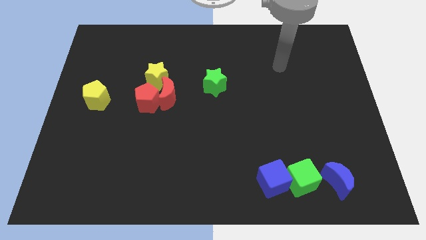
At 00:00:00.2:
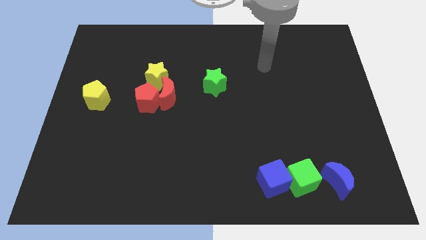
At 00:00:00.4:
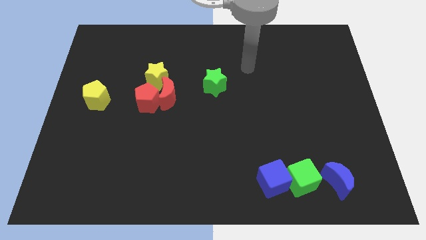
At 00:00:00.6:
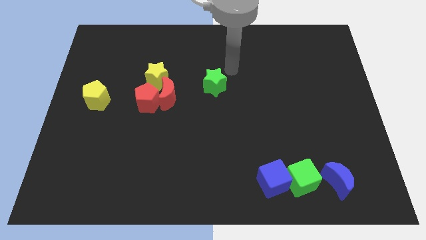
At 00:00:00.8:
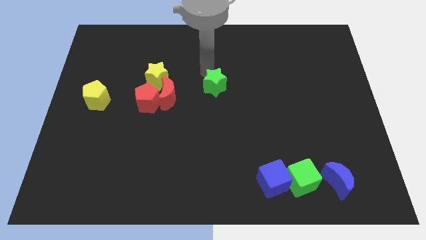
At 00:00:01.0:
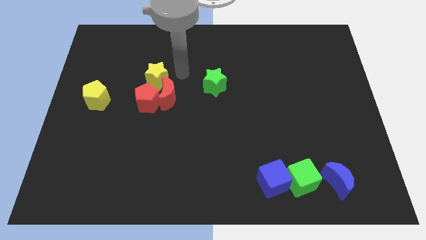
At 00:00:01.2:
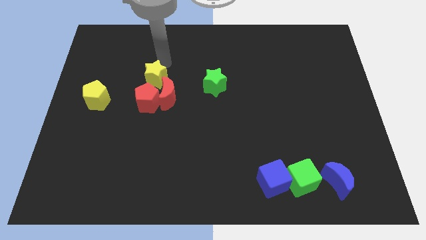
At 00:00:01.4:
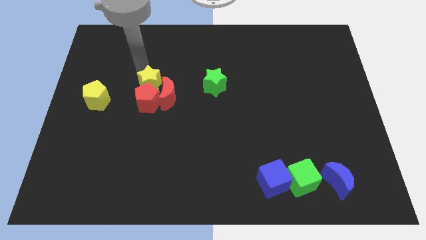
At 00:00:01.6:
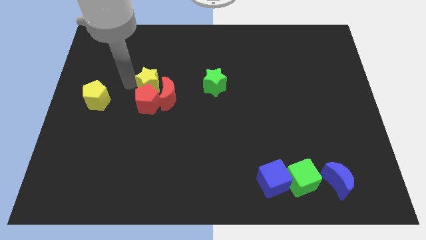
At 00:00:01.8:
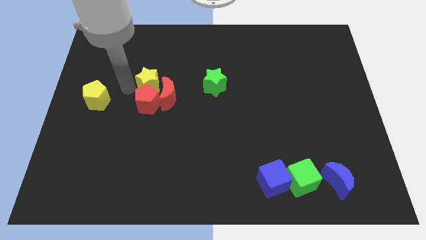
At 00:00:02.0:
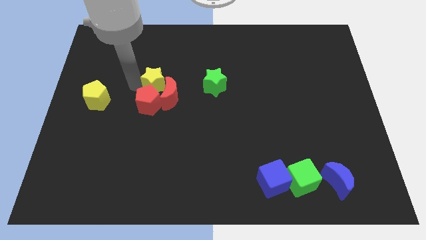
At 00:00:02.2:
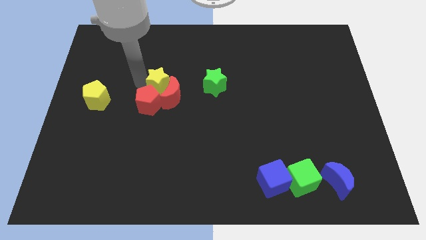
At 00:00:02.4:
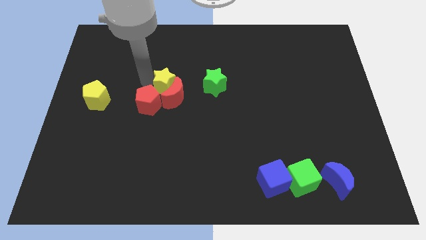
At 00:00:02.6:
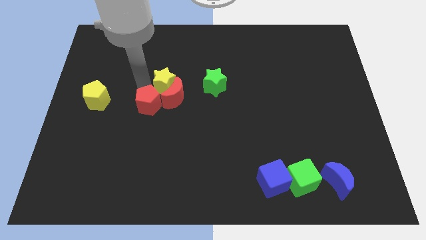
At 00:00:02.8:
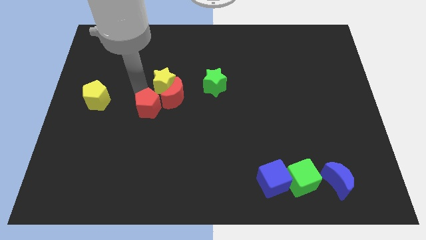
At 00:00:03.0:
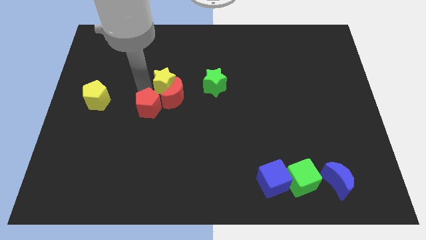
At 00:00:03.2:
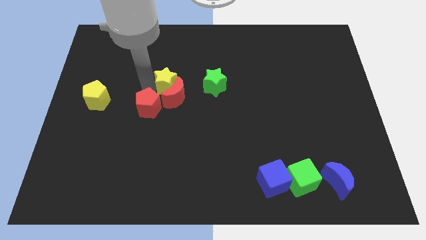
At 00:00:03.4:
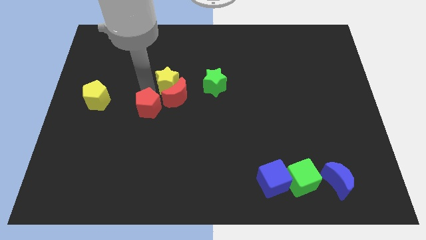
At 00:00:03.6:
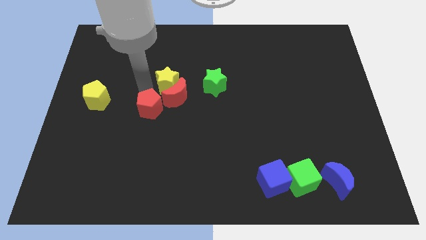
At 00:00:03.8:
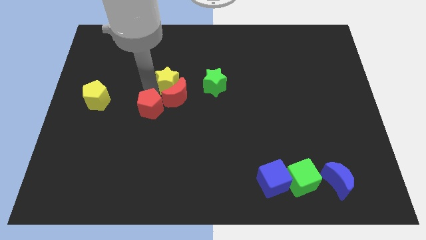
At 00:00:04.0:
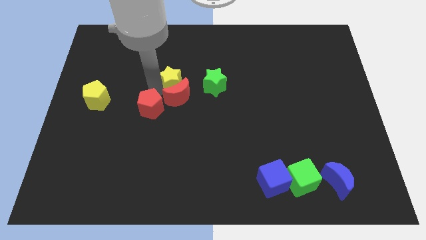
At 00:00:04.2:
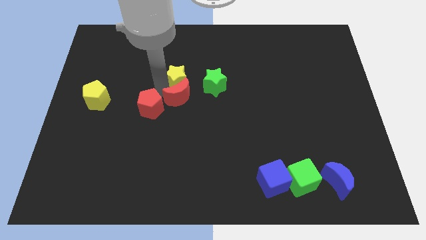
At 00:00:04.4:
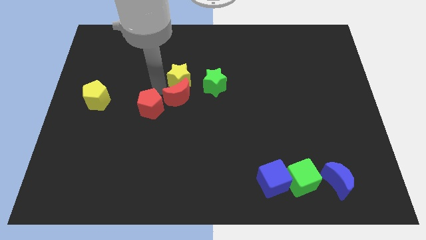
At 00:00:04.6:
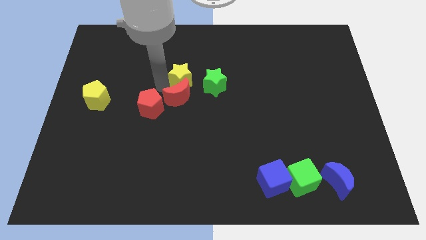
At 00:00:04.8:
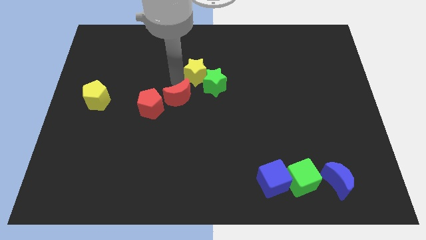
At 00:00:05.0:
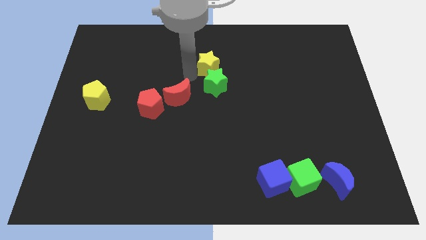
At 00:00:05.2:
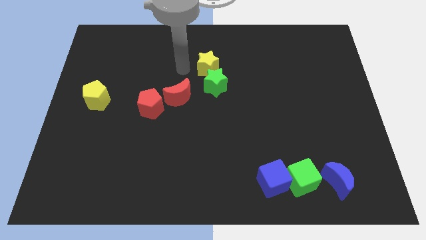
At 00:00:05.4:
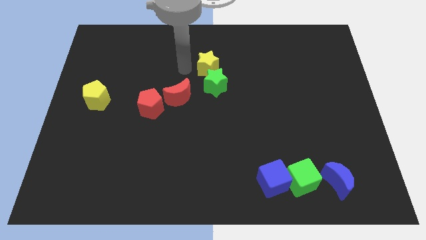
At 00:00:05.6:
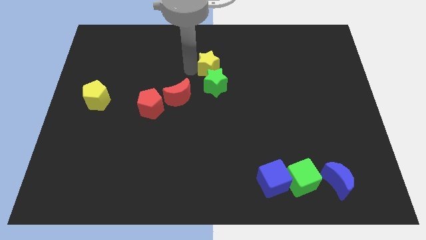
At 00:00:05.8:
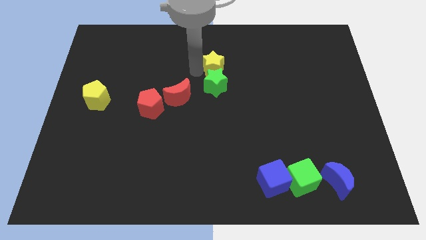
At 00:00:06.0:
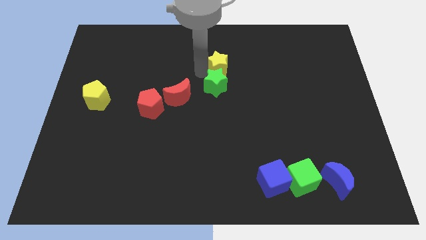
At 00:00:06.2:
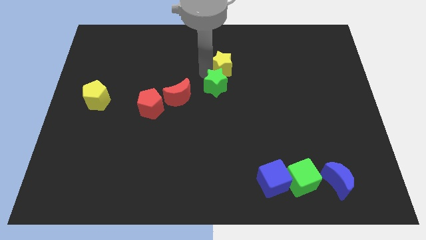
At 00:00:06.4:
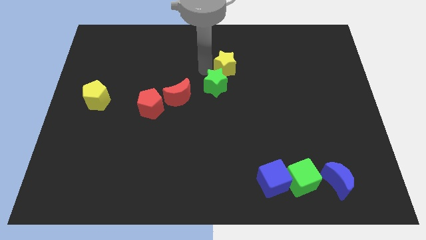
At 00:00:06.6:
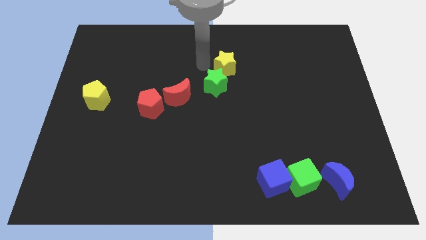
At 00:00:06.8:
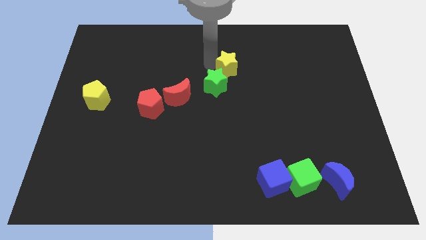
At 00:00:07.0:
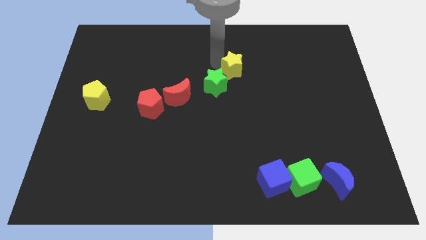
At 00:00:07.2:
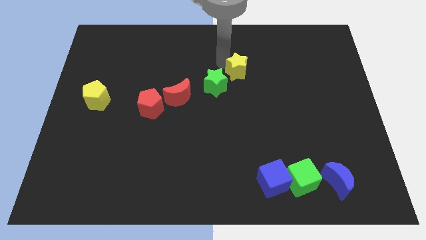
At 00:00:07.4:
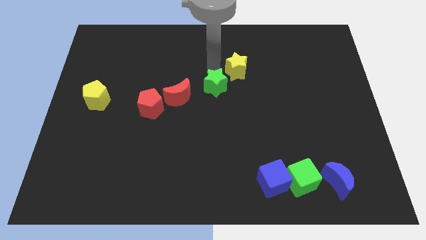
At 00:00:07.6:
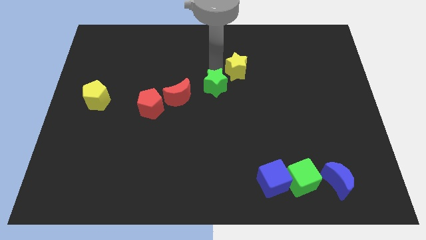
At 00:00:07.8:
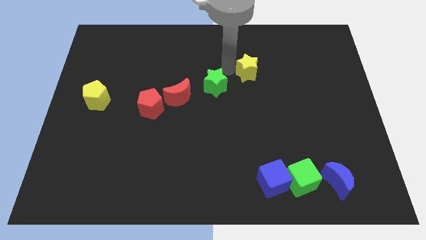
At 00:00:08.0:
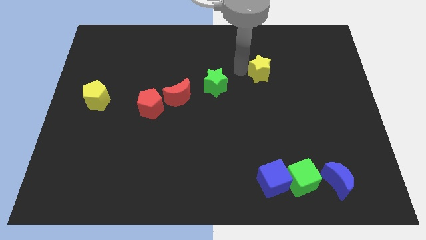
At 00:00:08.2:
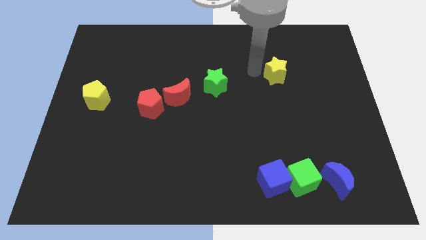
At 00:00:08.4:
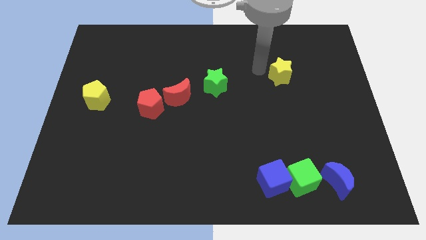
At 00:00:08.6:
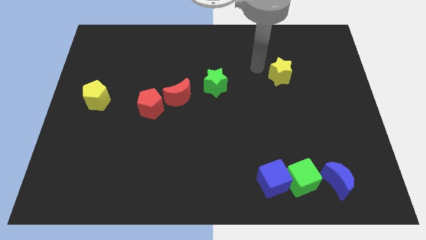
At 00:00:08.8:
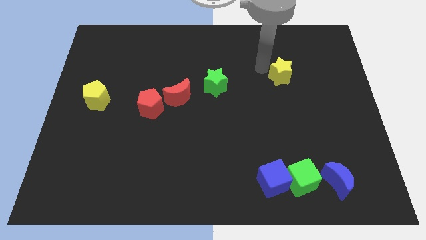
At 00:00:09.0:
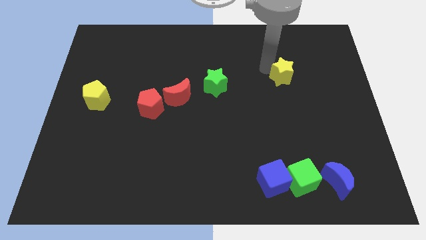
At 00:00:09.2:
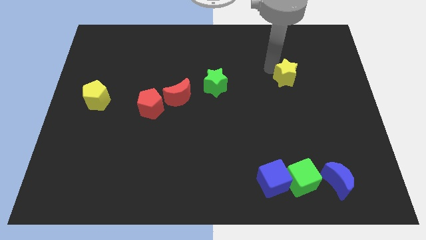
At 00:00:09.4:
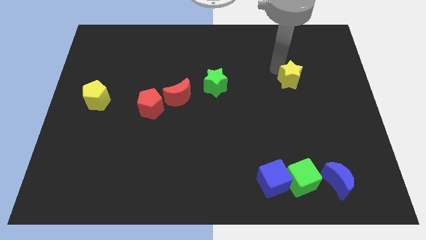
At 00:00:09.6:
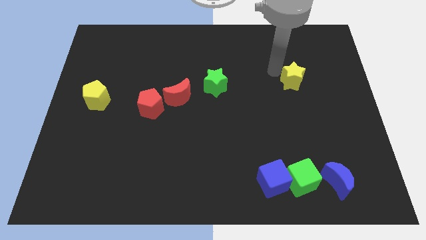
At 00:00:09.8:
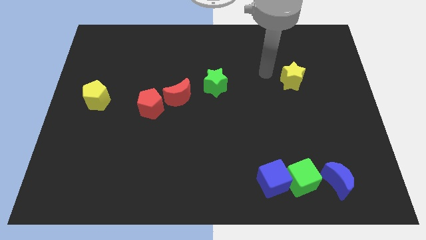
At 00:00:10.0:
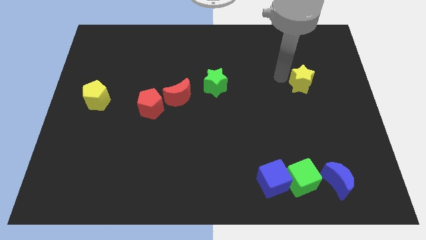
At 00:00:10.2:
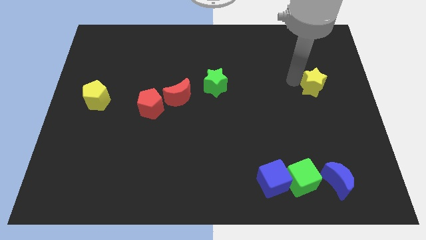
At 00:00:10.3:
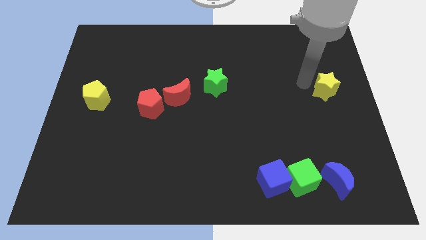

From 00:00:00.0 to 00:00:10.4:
push the yellow star to the right side

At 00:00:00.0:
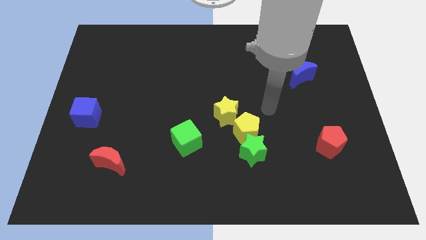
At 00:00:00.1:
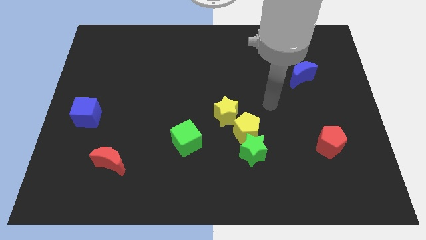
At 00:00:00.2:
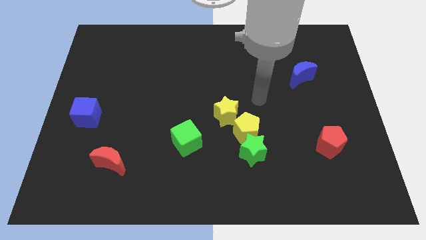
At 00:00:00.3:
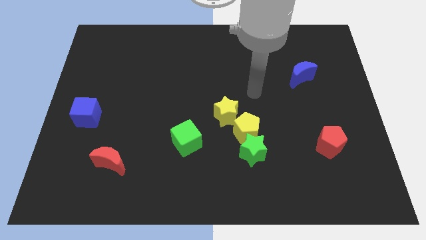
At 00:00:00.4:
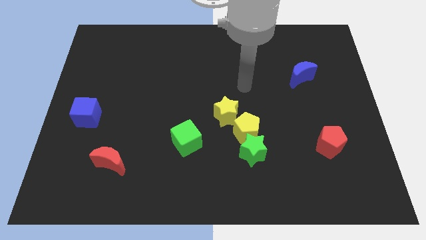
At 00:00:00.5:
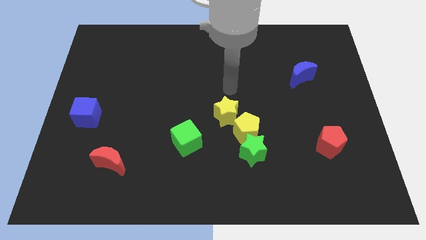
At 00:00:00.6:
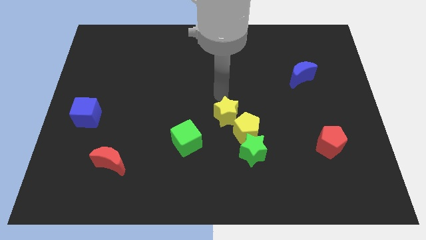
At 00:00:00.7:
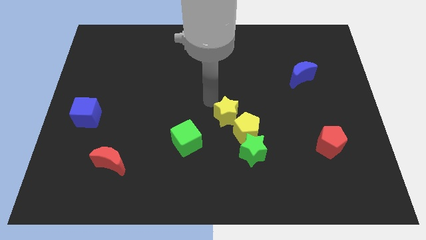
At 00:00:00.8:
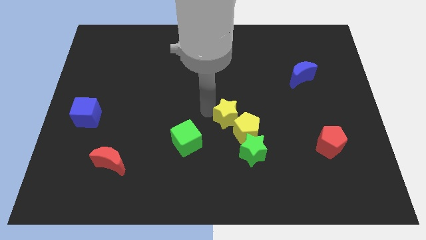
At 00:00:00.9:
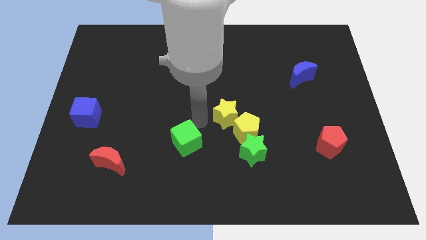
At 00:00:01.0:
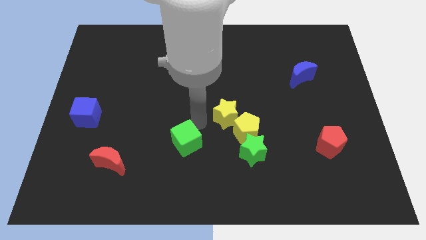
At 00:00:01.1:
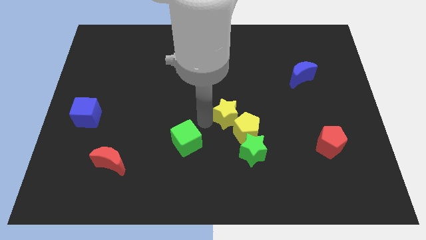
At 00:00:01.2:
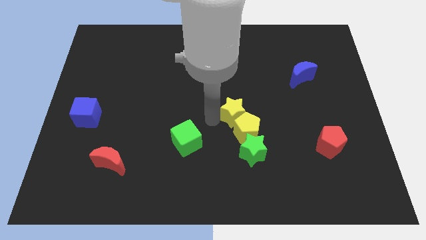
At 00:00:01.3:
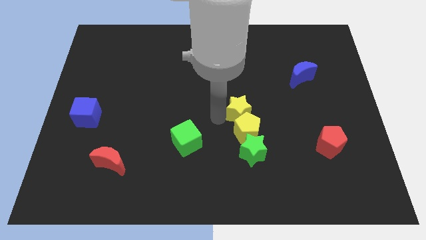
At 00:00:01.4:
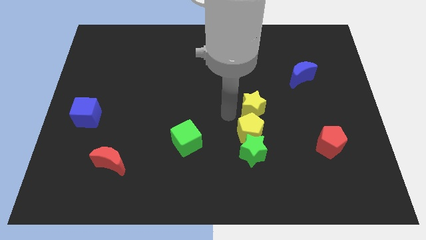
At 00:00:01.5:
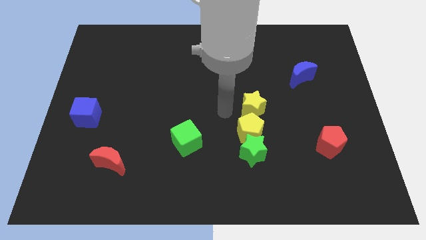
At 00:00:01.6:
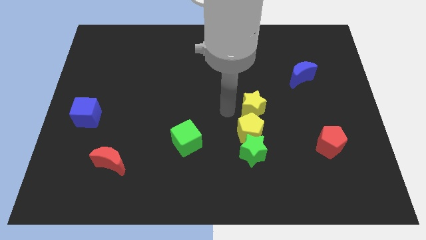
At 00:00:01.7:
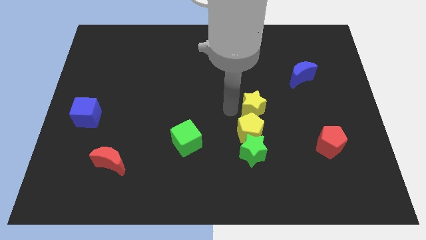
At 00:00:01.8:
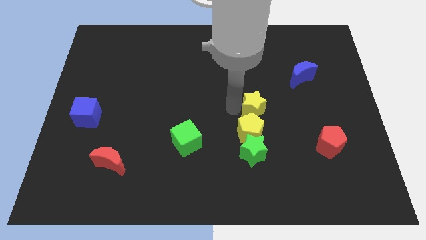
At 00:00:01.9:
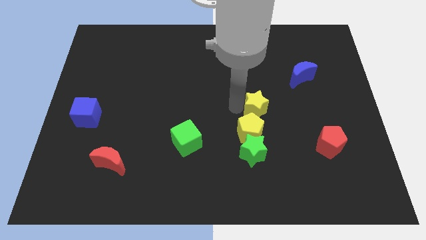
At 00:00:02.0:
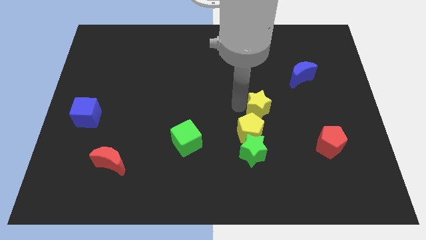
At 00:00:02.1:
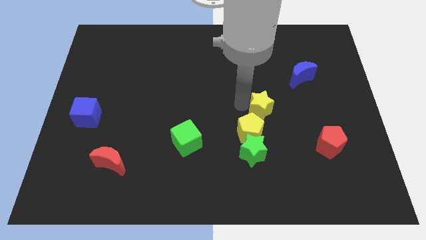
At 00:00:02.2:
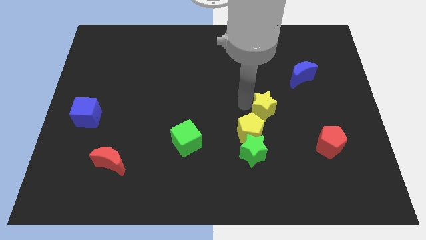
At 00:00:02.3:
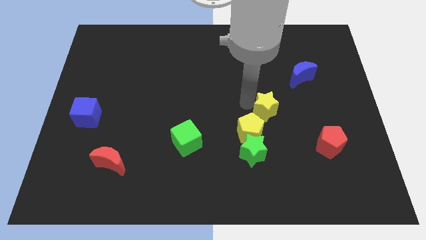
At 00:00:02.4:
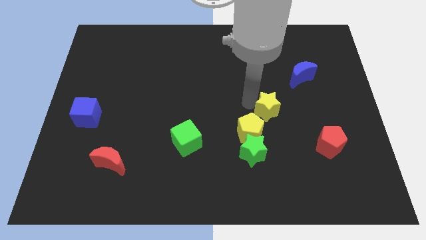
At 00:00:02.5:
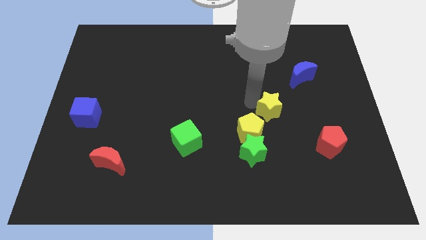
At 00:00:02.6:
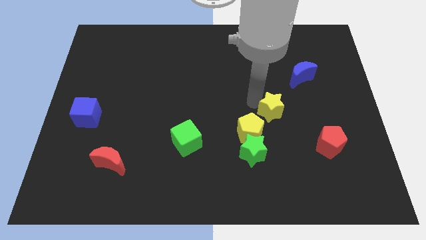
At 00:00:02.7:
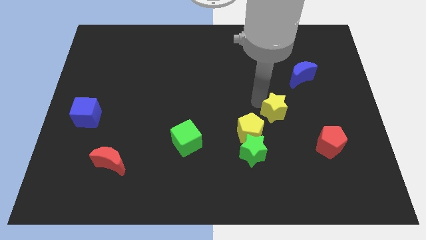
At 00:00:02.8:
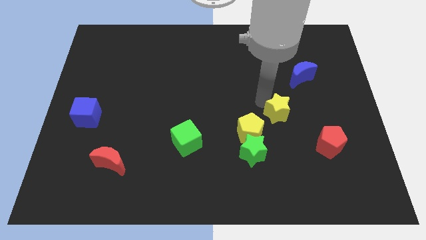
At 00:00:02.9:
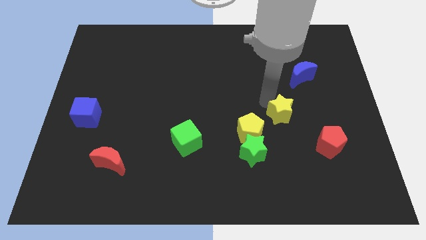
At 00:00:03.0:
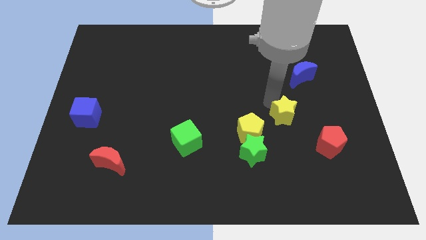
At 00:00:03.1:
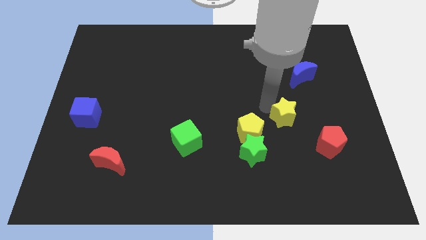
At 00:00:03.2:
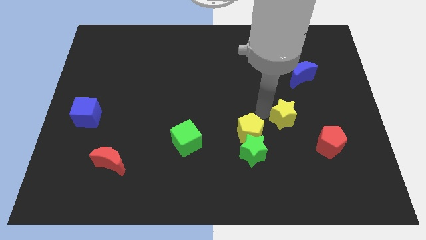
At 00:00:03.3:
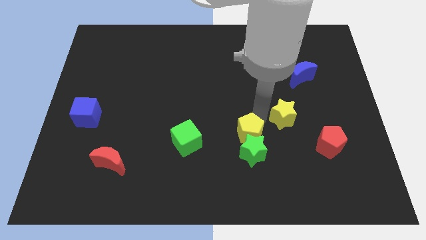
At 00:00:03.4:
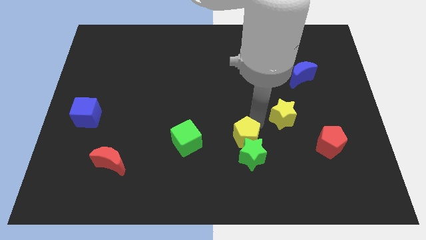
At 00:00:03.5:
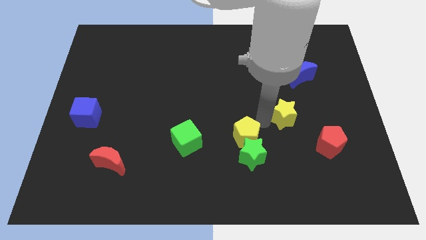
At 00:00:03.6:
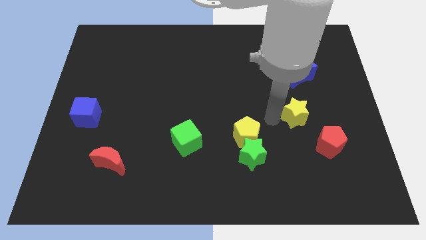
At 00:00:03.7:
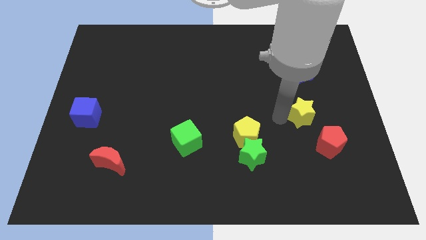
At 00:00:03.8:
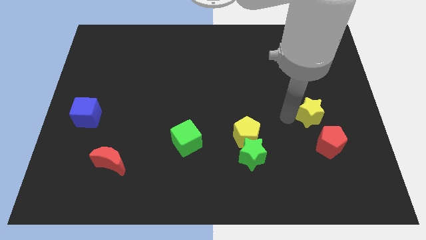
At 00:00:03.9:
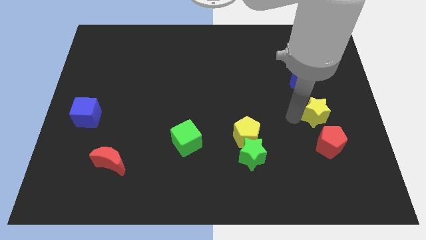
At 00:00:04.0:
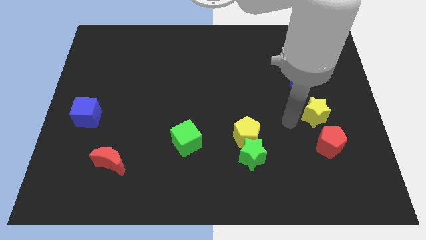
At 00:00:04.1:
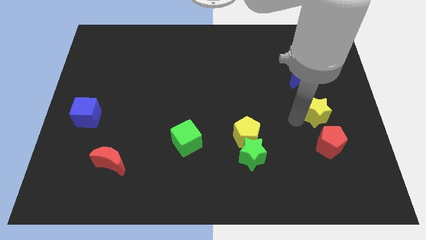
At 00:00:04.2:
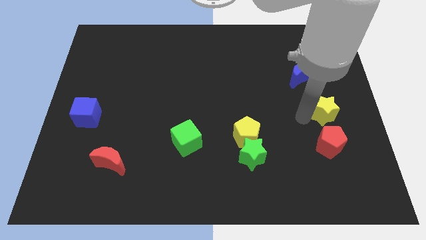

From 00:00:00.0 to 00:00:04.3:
slide the yellow star to the right side of the board
